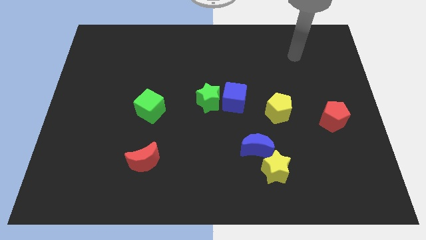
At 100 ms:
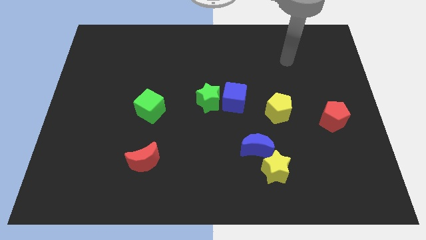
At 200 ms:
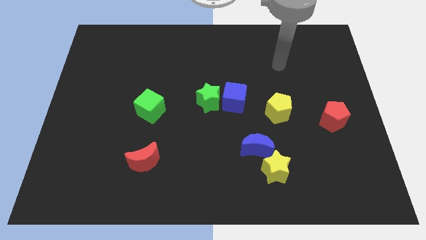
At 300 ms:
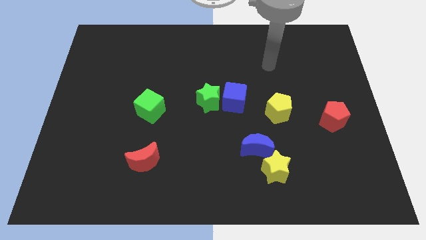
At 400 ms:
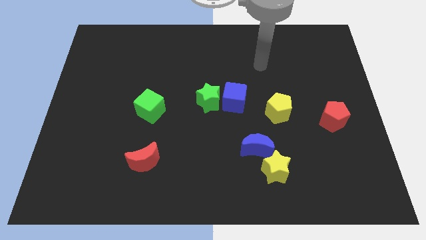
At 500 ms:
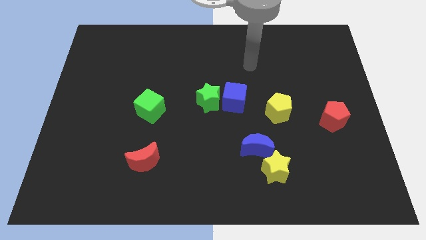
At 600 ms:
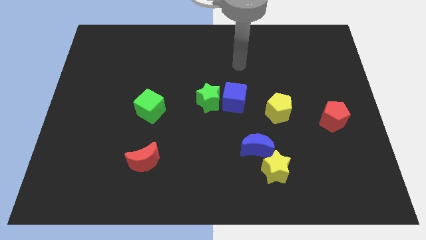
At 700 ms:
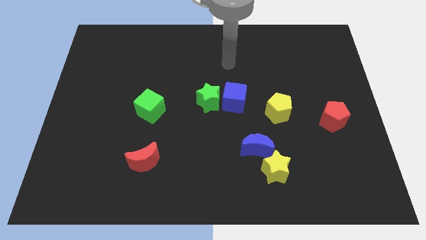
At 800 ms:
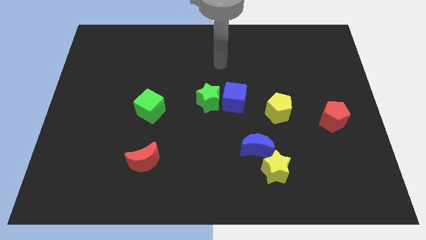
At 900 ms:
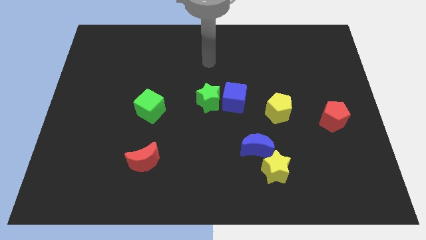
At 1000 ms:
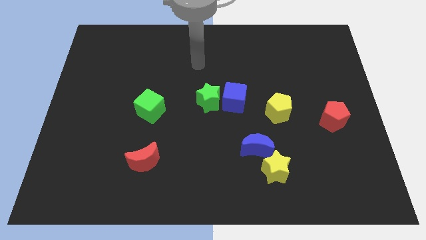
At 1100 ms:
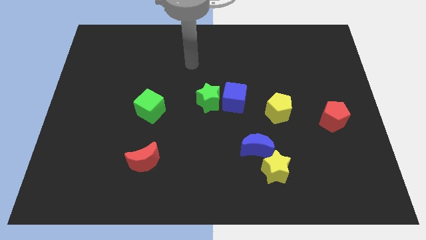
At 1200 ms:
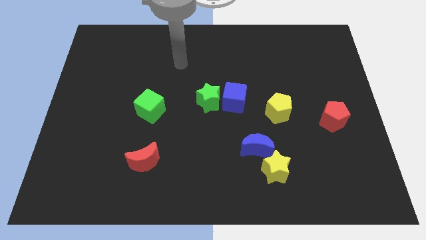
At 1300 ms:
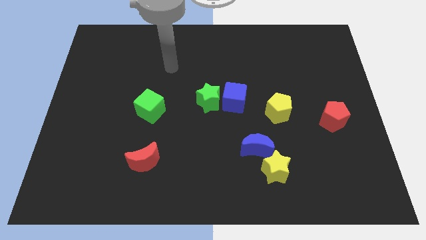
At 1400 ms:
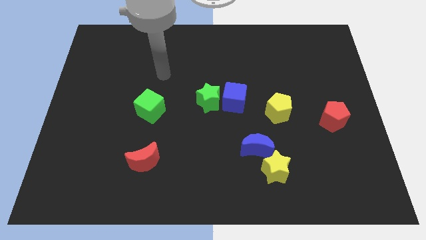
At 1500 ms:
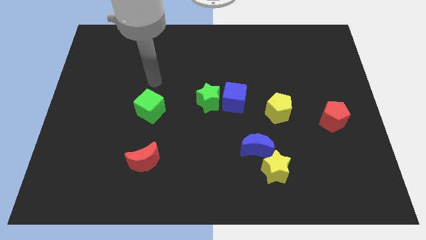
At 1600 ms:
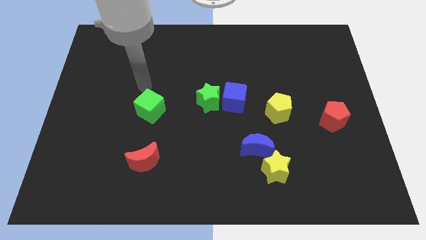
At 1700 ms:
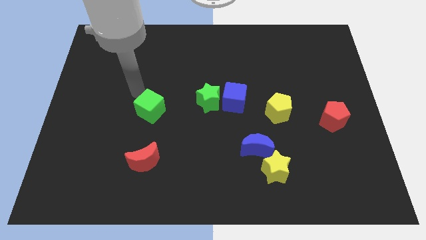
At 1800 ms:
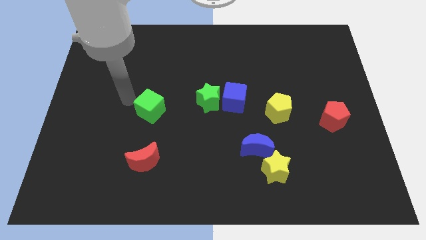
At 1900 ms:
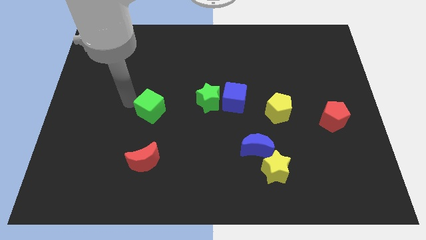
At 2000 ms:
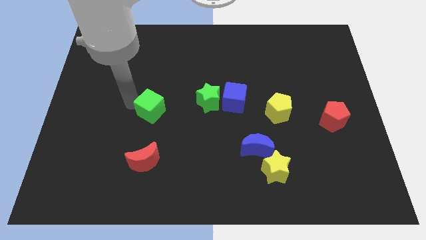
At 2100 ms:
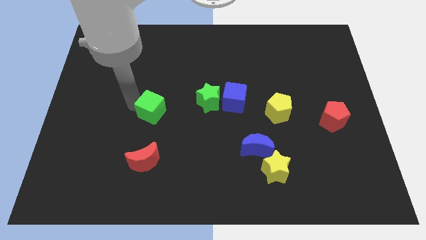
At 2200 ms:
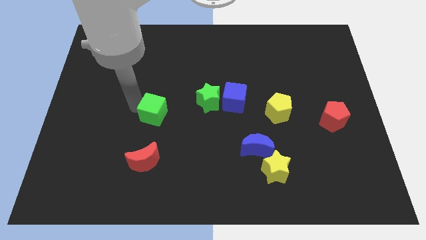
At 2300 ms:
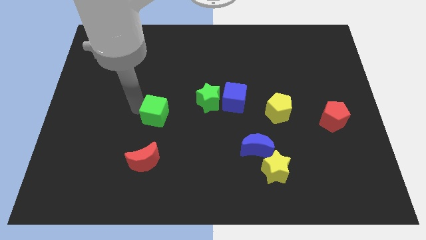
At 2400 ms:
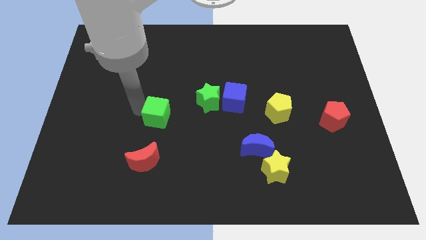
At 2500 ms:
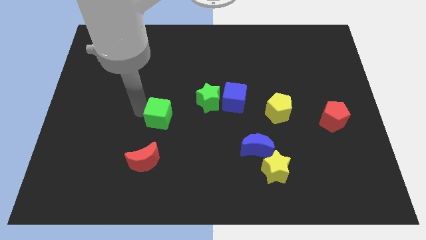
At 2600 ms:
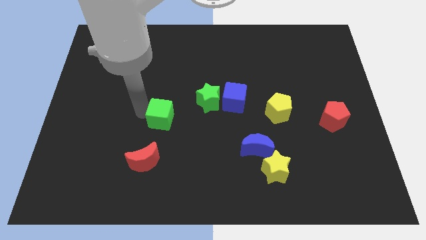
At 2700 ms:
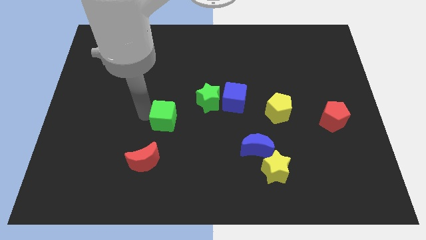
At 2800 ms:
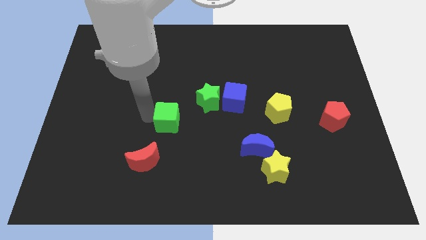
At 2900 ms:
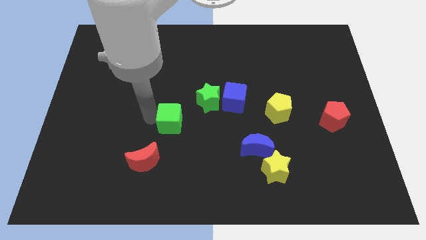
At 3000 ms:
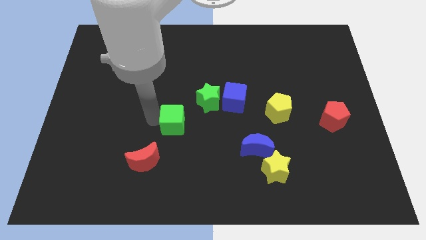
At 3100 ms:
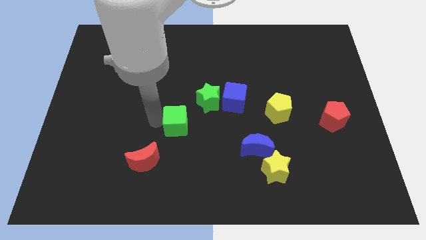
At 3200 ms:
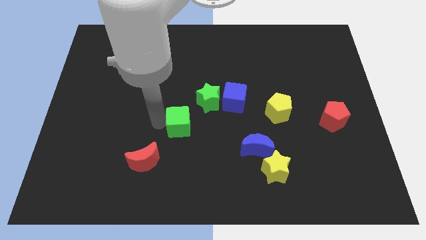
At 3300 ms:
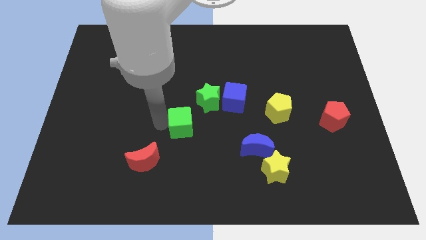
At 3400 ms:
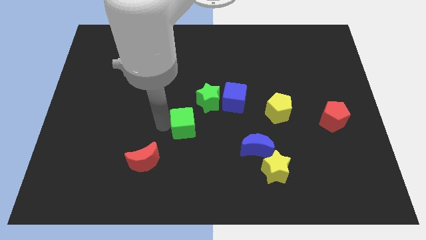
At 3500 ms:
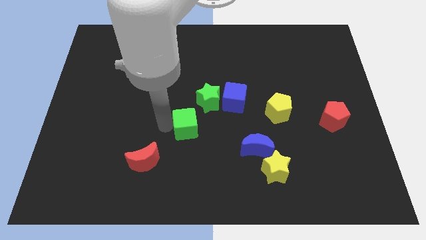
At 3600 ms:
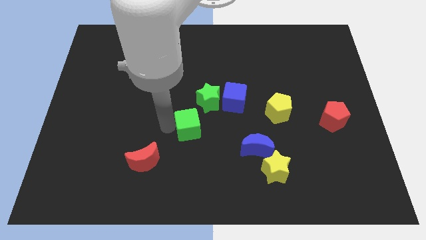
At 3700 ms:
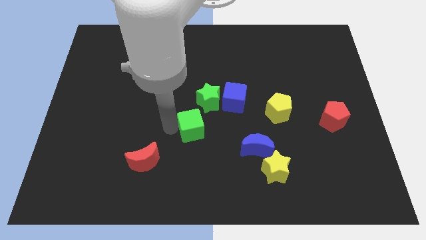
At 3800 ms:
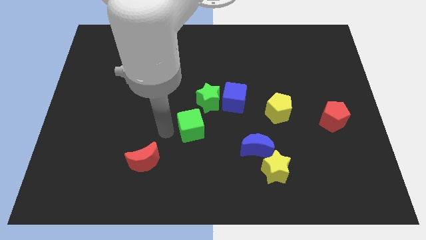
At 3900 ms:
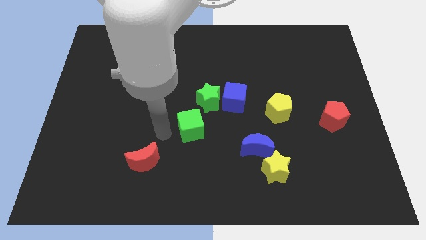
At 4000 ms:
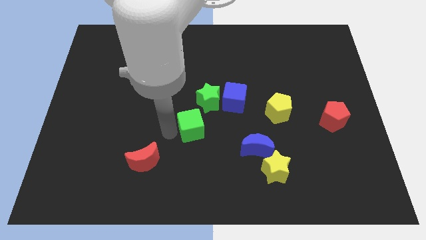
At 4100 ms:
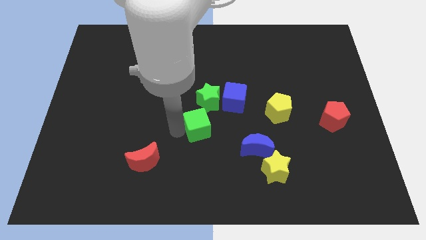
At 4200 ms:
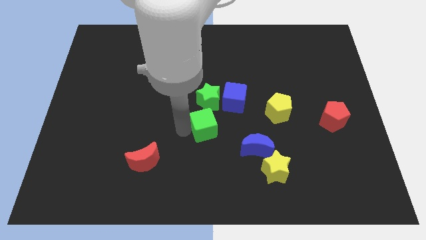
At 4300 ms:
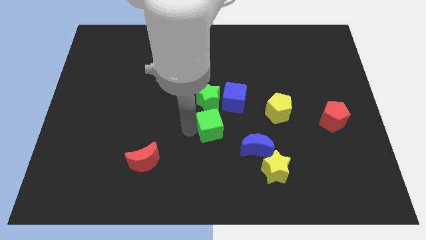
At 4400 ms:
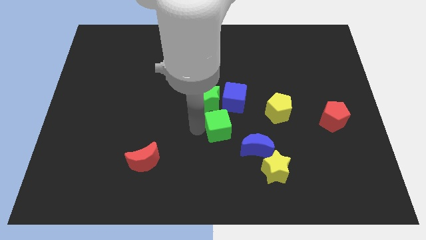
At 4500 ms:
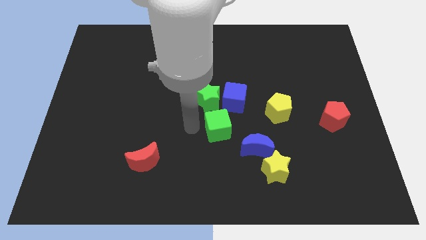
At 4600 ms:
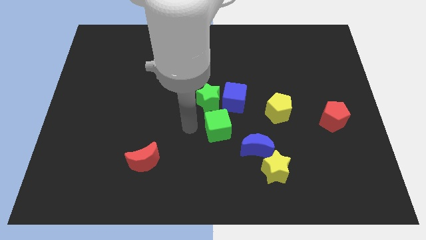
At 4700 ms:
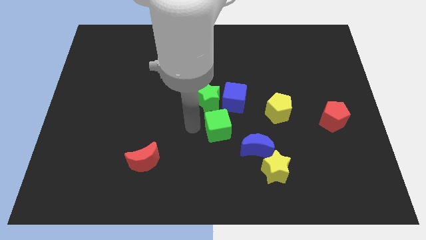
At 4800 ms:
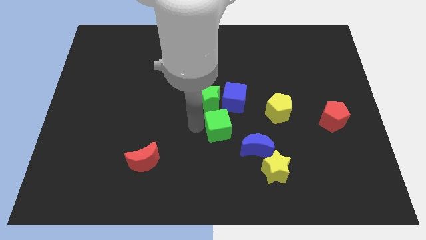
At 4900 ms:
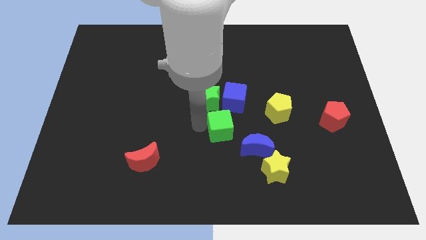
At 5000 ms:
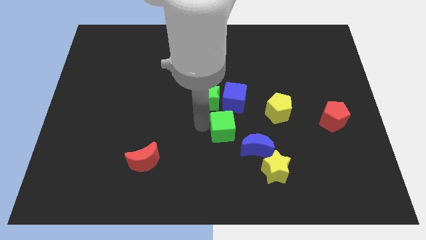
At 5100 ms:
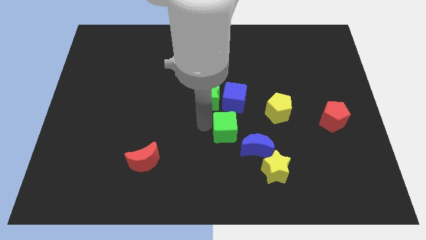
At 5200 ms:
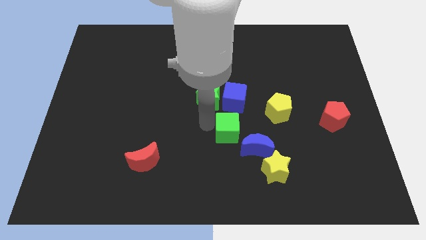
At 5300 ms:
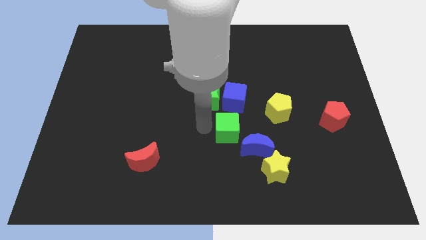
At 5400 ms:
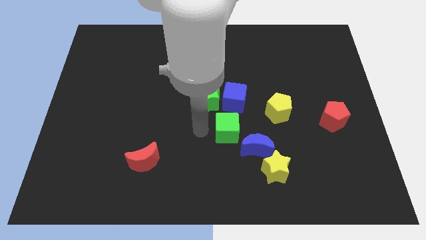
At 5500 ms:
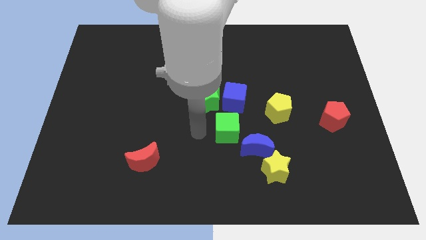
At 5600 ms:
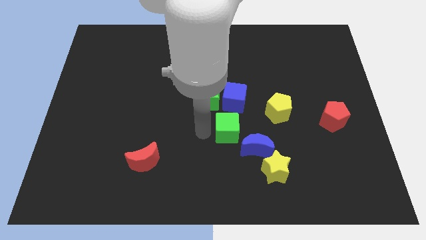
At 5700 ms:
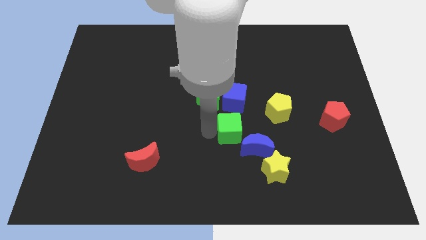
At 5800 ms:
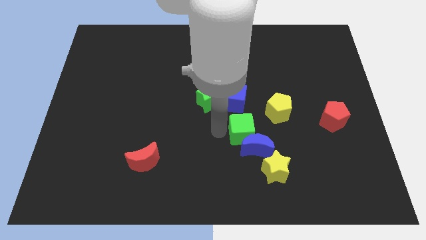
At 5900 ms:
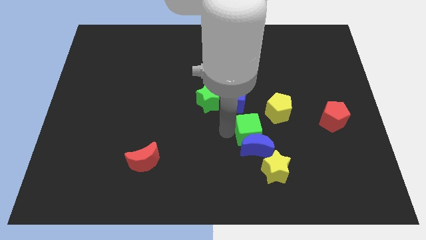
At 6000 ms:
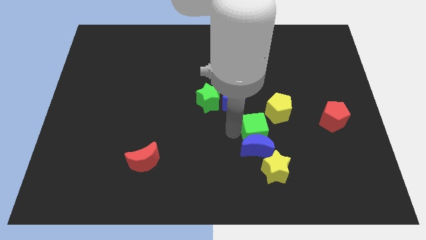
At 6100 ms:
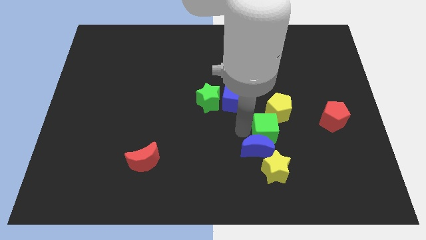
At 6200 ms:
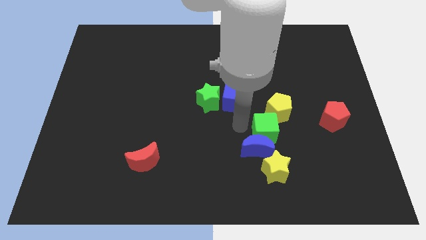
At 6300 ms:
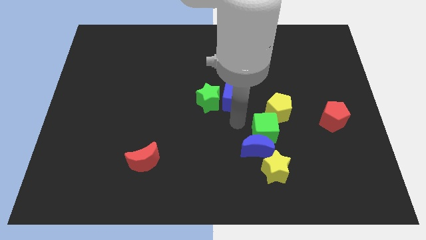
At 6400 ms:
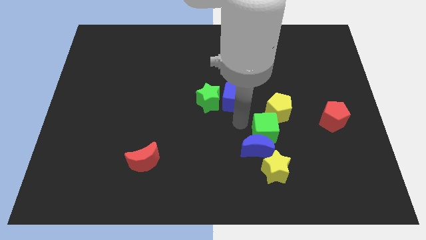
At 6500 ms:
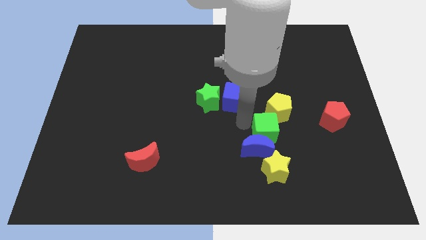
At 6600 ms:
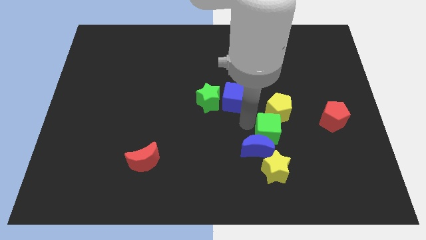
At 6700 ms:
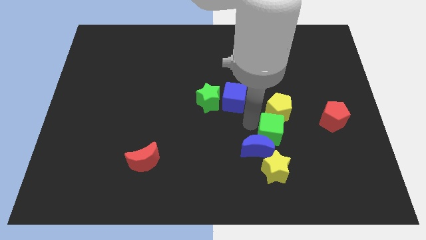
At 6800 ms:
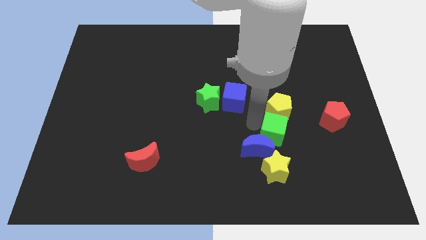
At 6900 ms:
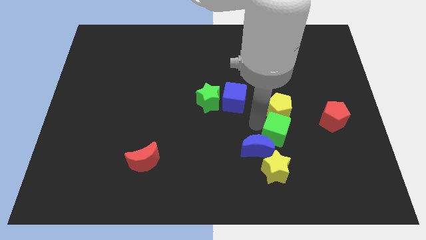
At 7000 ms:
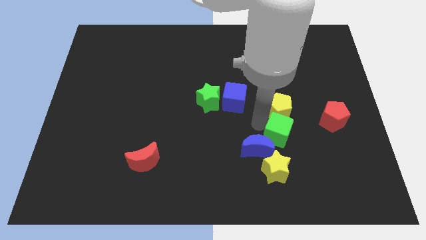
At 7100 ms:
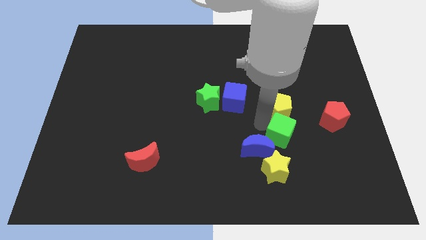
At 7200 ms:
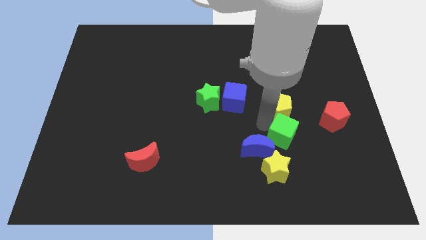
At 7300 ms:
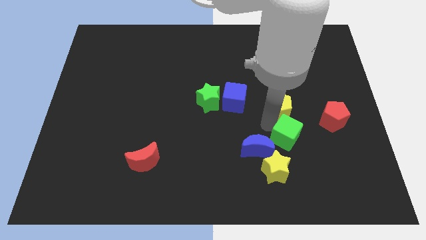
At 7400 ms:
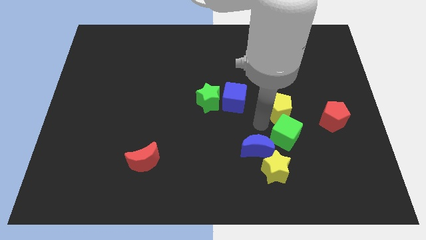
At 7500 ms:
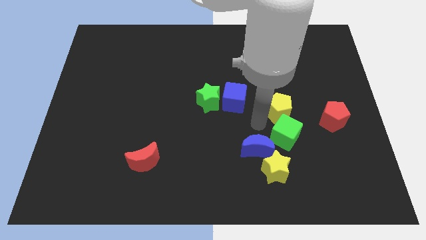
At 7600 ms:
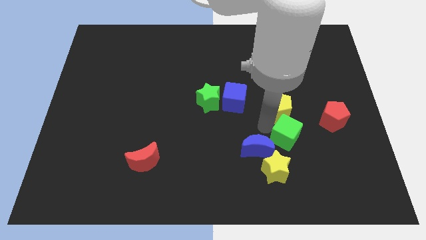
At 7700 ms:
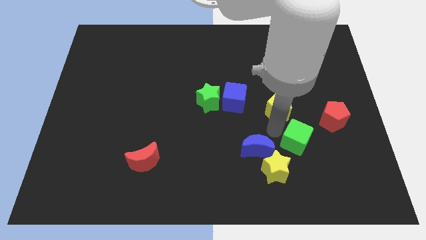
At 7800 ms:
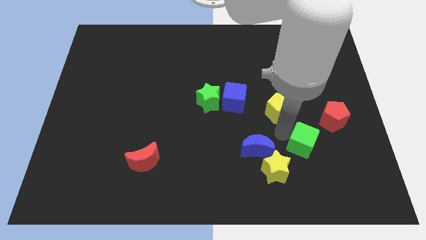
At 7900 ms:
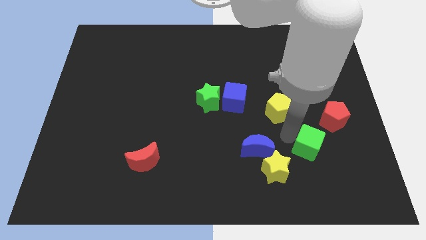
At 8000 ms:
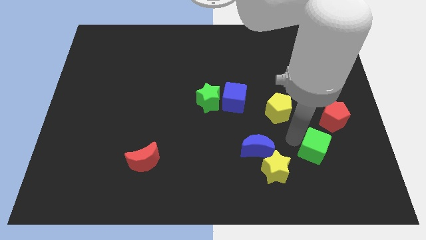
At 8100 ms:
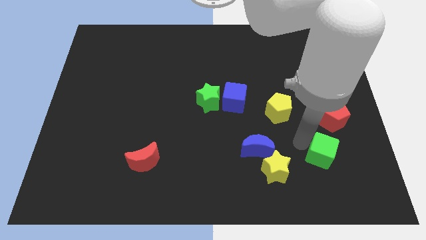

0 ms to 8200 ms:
put the green cube below the red pentagon
